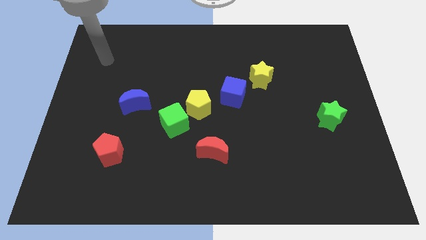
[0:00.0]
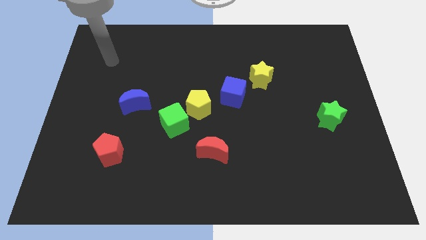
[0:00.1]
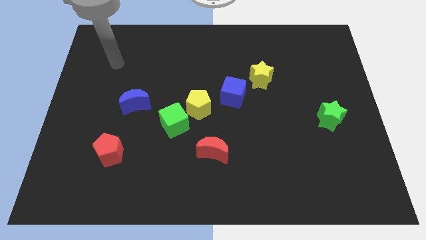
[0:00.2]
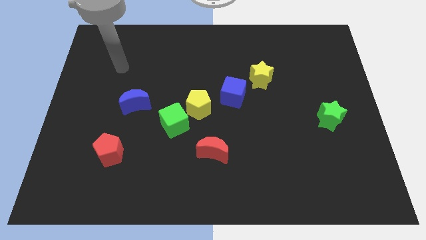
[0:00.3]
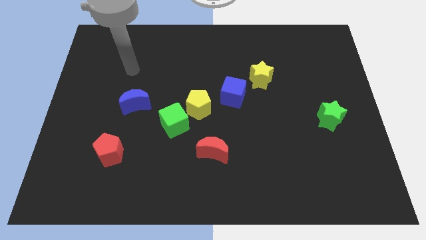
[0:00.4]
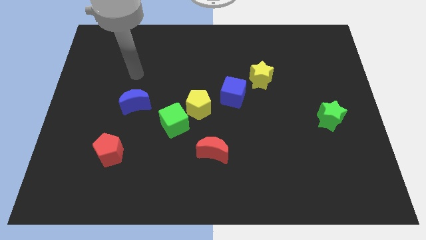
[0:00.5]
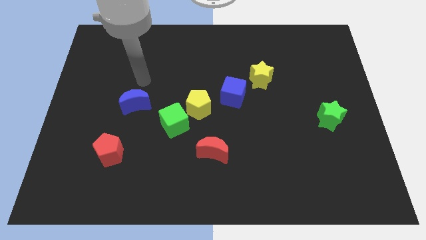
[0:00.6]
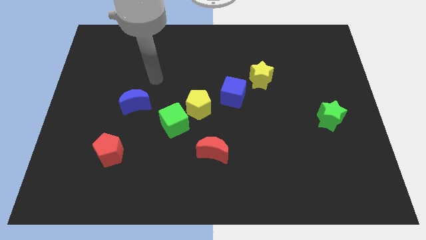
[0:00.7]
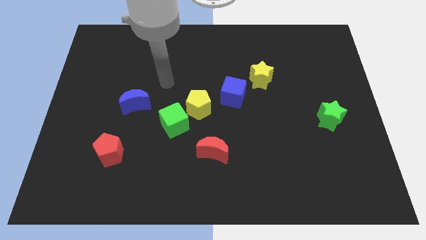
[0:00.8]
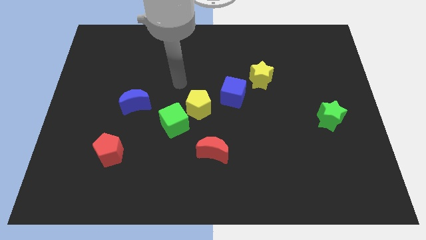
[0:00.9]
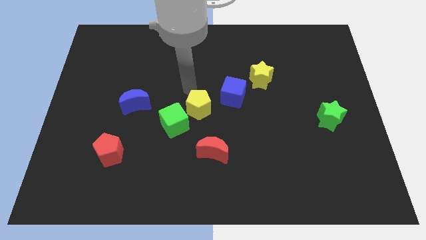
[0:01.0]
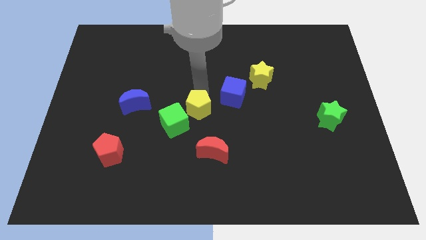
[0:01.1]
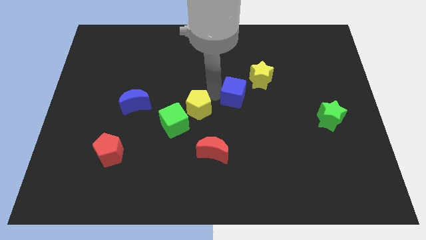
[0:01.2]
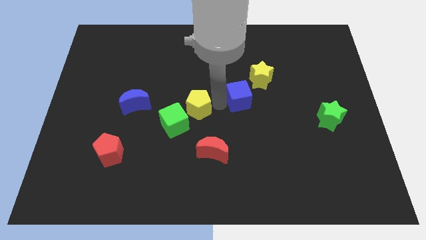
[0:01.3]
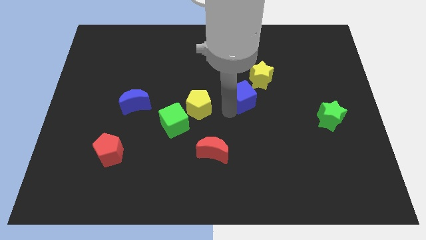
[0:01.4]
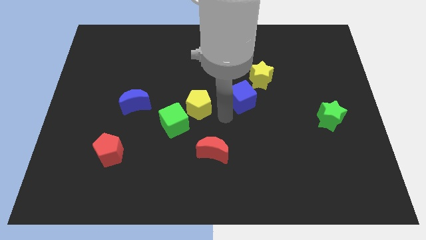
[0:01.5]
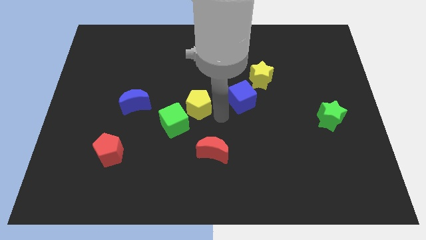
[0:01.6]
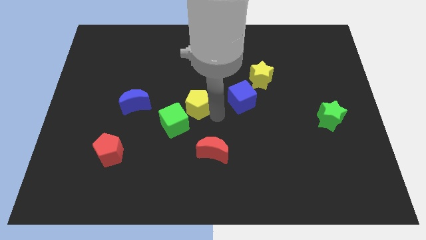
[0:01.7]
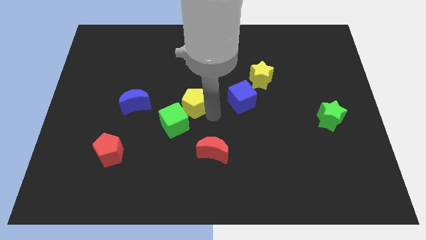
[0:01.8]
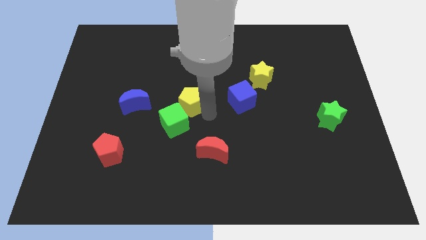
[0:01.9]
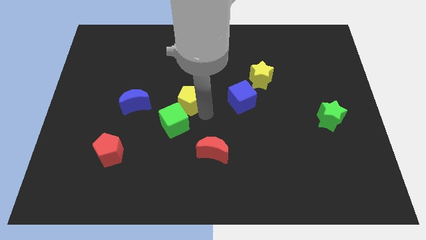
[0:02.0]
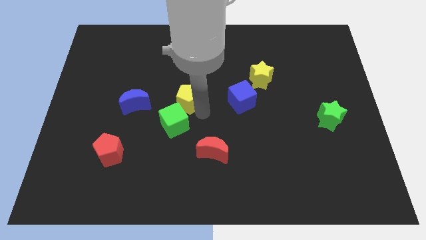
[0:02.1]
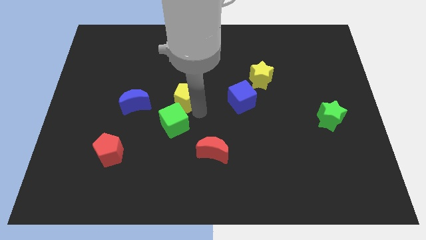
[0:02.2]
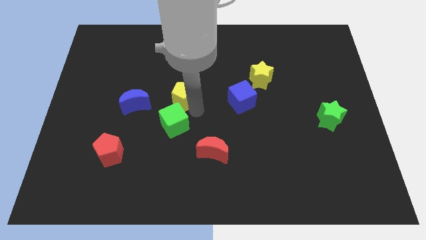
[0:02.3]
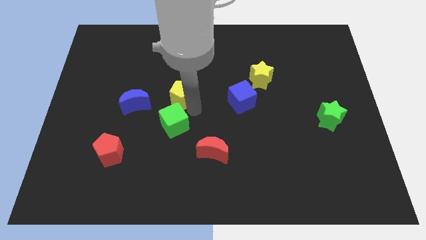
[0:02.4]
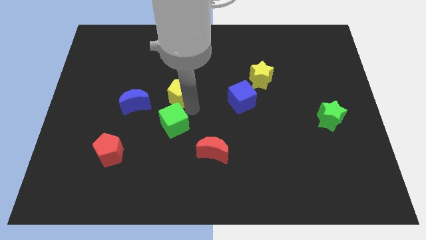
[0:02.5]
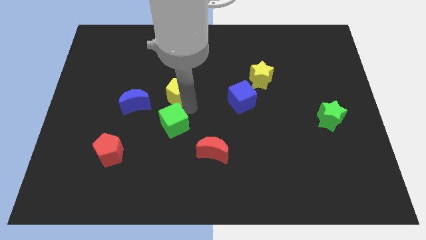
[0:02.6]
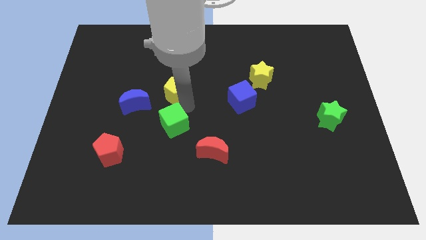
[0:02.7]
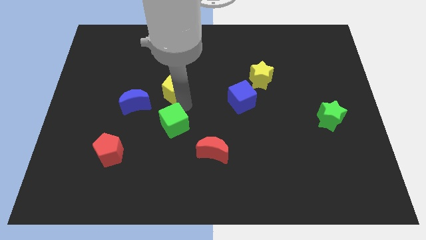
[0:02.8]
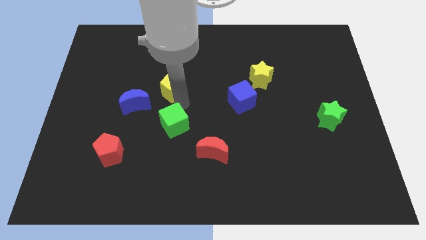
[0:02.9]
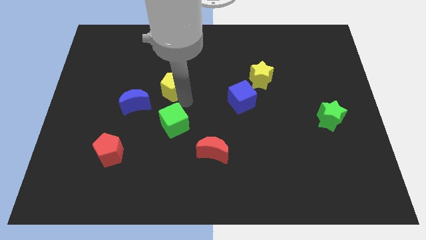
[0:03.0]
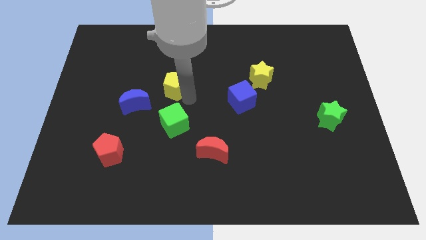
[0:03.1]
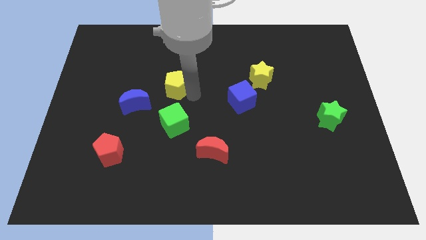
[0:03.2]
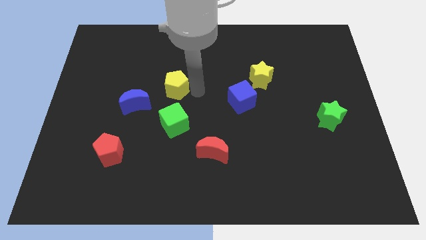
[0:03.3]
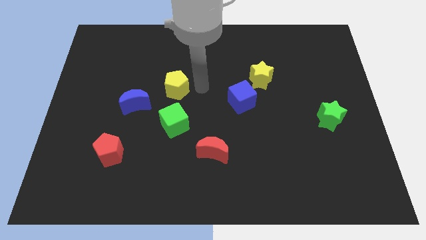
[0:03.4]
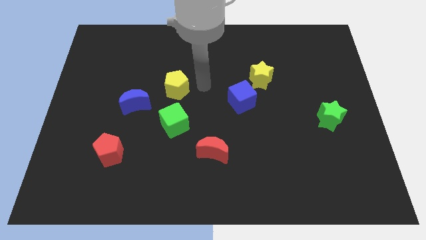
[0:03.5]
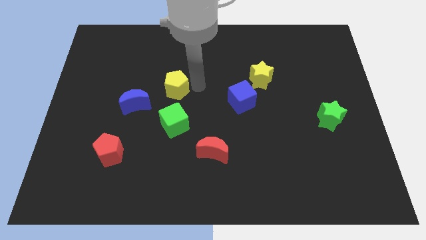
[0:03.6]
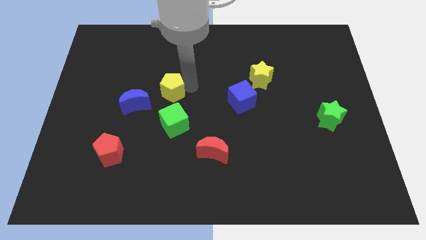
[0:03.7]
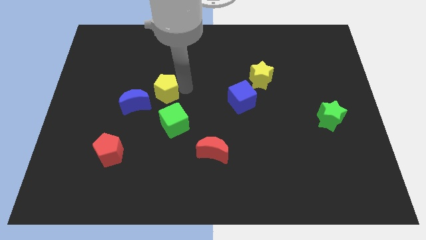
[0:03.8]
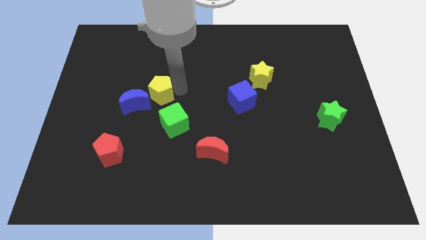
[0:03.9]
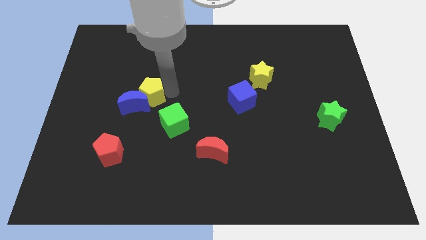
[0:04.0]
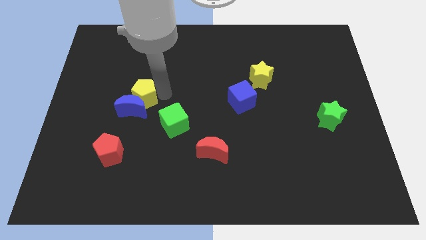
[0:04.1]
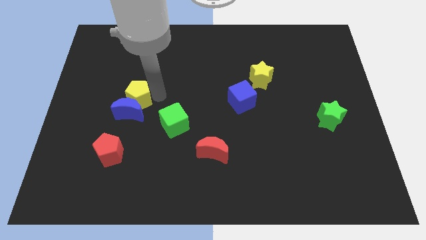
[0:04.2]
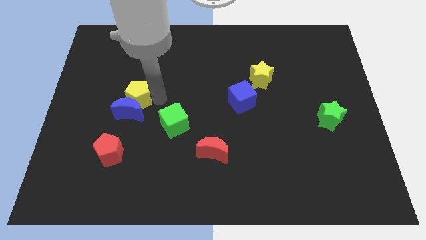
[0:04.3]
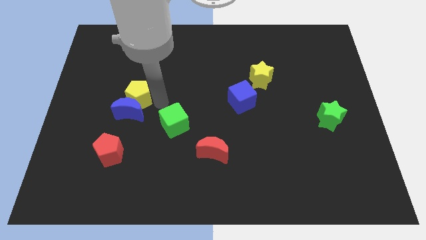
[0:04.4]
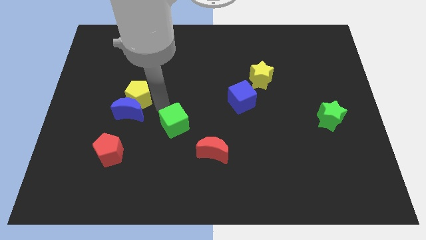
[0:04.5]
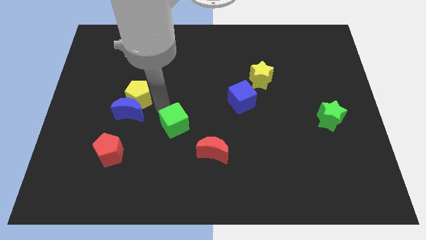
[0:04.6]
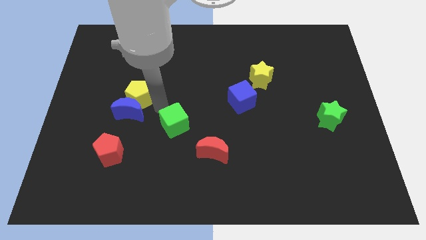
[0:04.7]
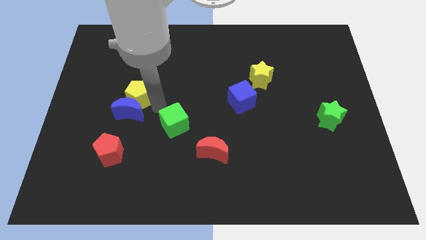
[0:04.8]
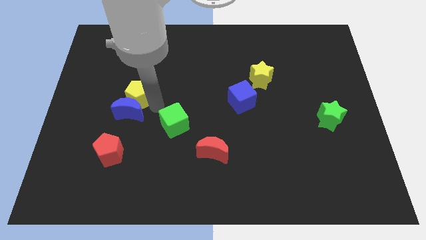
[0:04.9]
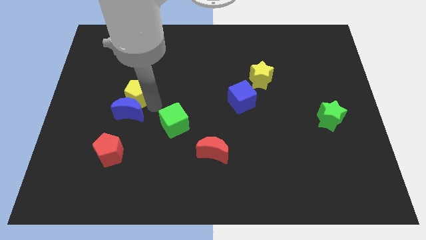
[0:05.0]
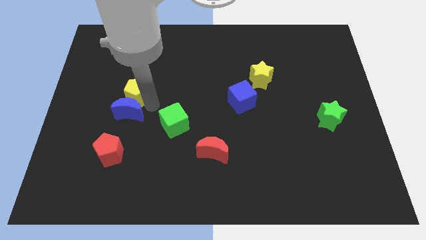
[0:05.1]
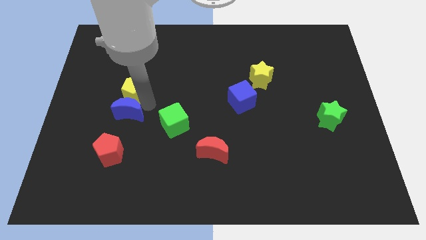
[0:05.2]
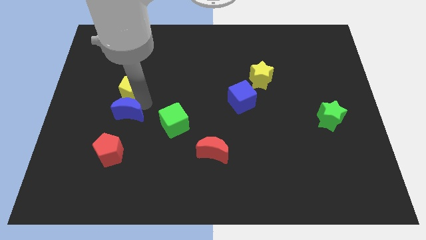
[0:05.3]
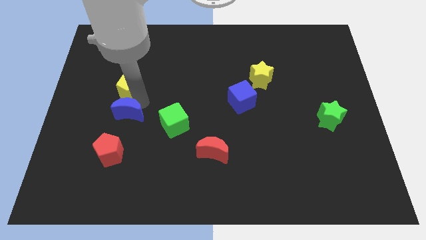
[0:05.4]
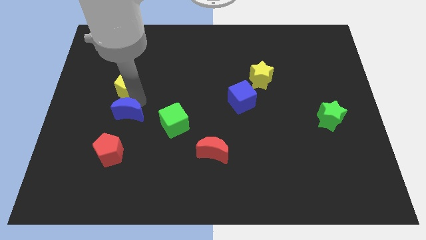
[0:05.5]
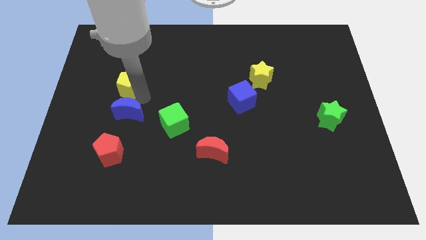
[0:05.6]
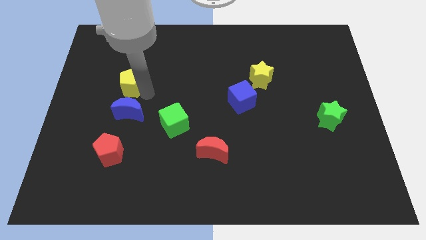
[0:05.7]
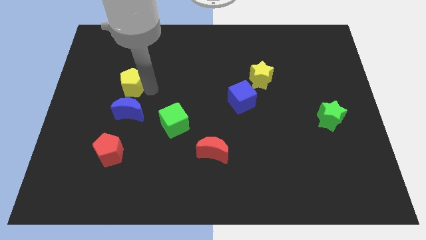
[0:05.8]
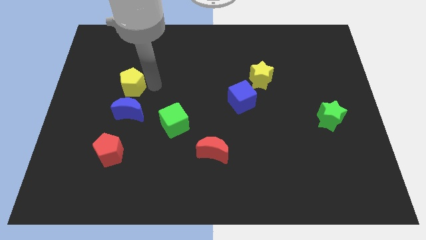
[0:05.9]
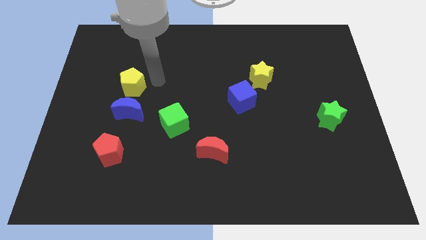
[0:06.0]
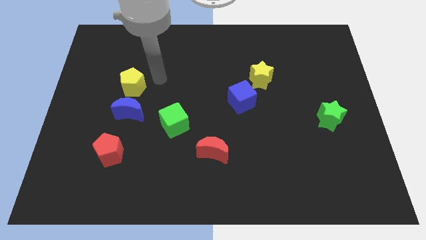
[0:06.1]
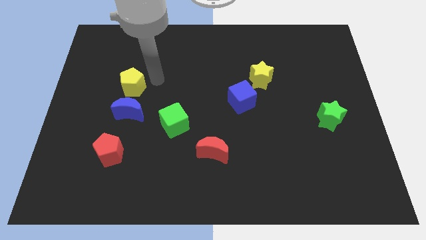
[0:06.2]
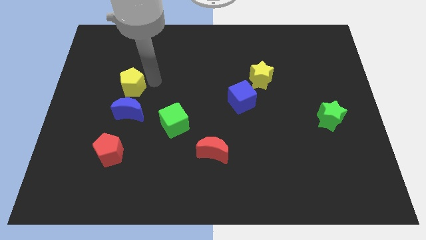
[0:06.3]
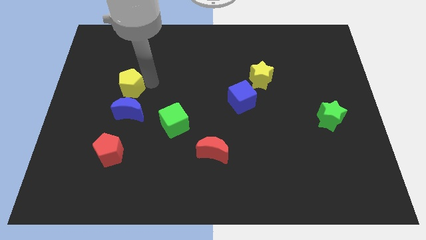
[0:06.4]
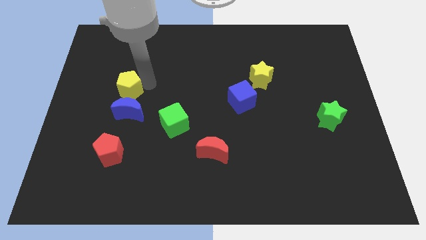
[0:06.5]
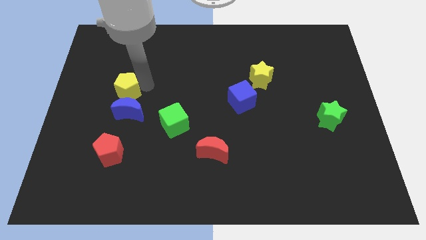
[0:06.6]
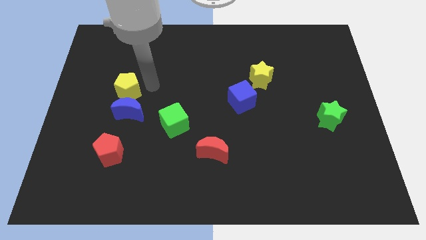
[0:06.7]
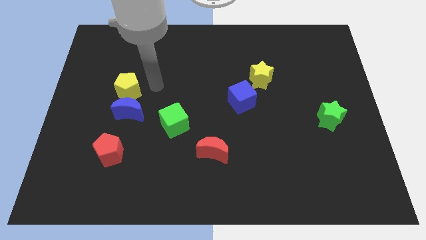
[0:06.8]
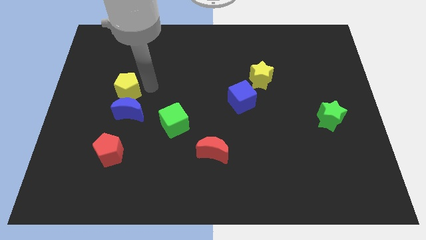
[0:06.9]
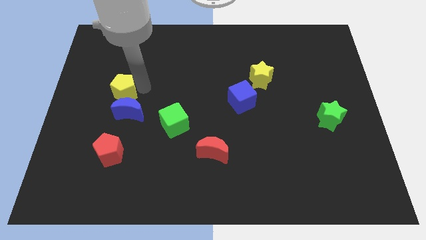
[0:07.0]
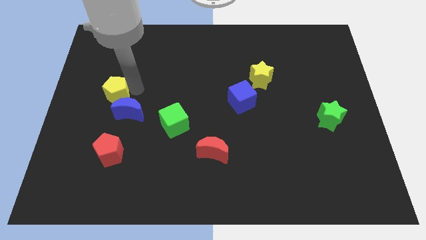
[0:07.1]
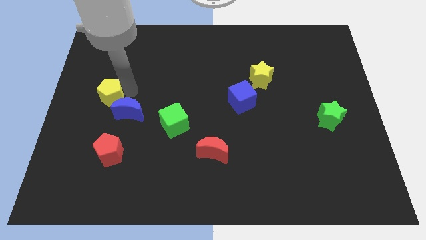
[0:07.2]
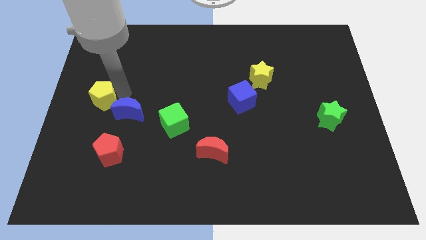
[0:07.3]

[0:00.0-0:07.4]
slide the yellow pentagon to the left side
